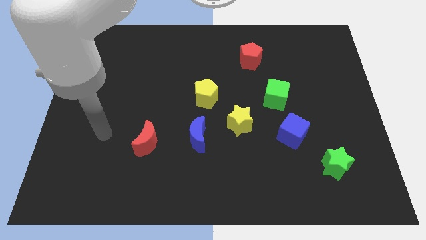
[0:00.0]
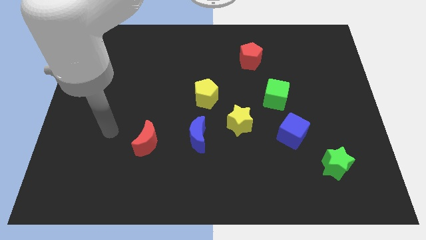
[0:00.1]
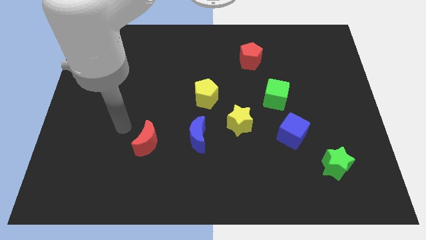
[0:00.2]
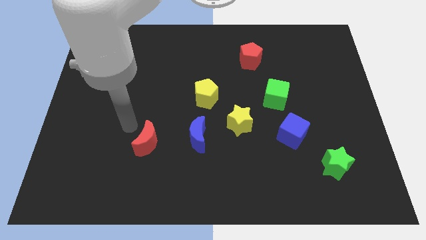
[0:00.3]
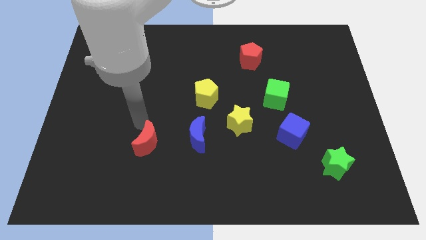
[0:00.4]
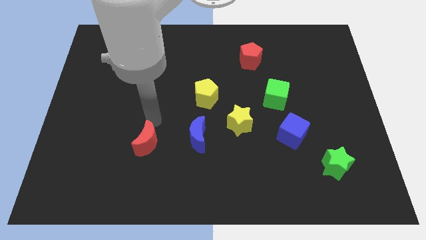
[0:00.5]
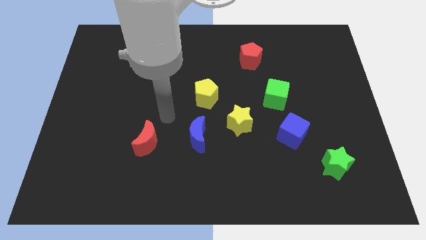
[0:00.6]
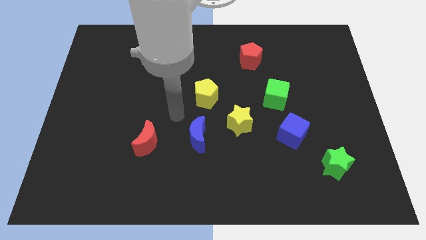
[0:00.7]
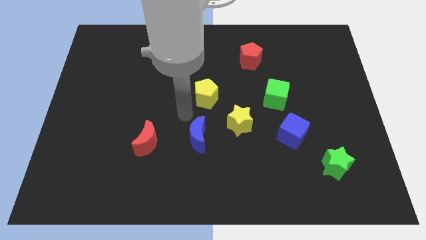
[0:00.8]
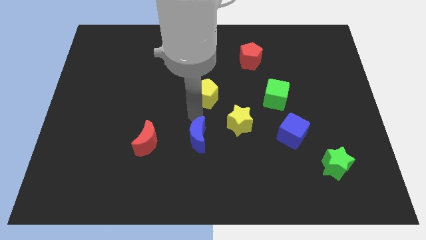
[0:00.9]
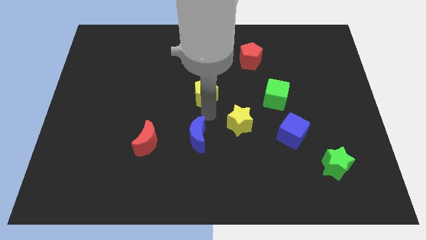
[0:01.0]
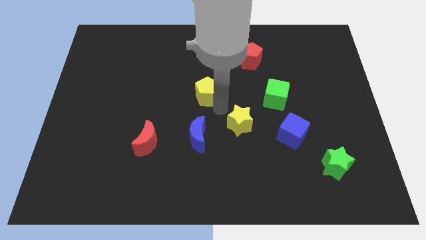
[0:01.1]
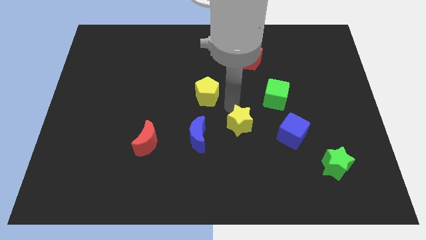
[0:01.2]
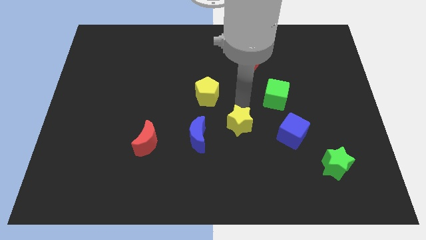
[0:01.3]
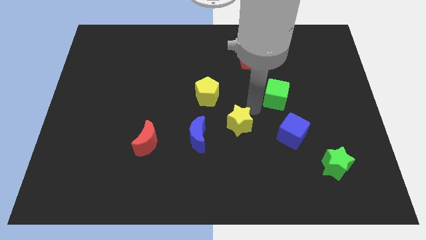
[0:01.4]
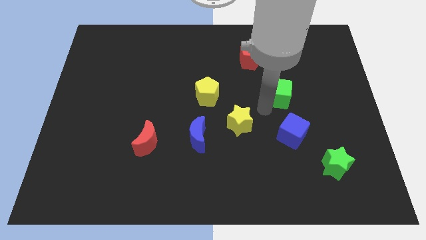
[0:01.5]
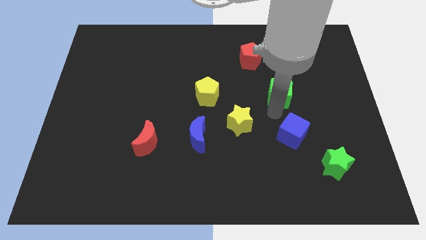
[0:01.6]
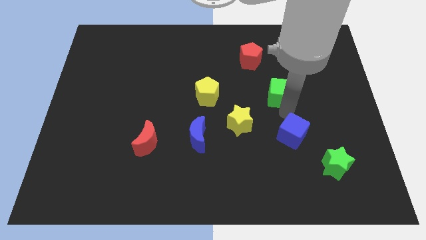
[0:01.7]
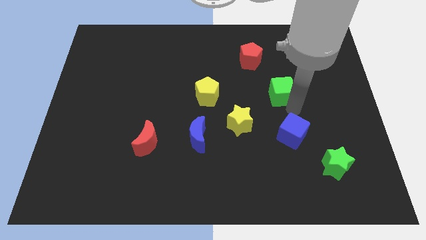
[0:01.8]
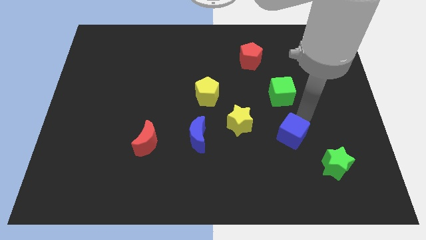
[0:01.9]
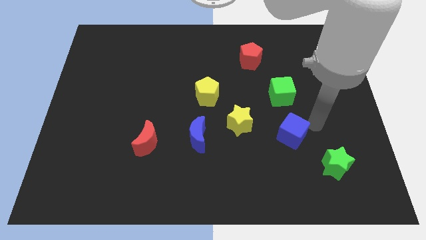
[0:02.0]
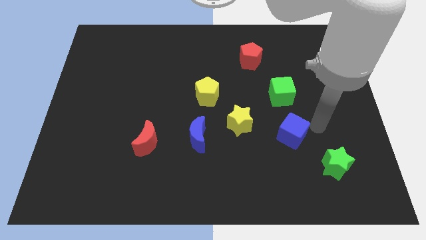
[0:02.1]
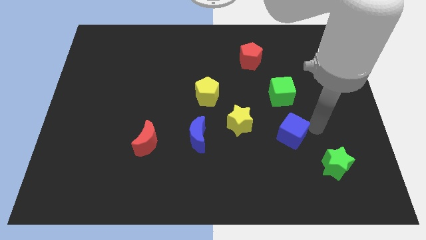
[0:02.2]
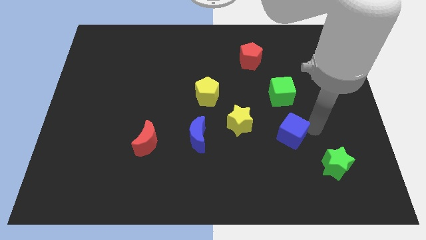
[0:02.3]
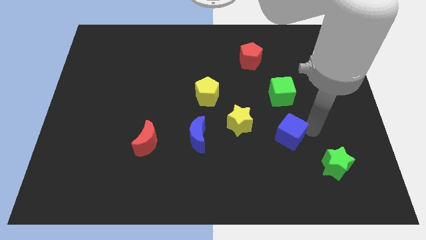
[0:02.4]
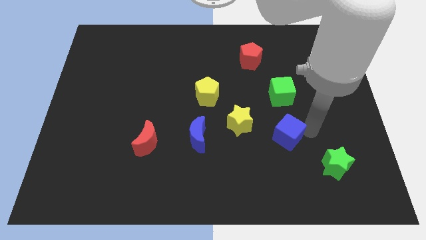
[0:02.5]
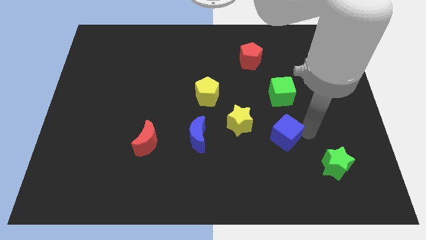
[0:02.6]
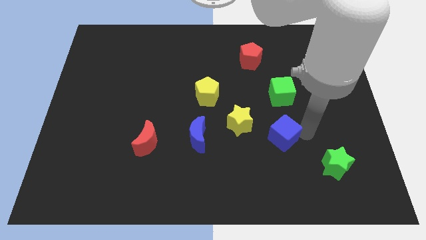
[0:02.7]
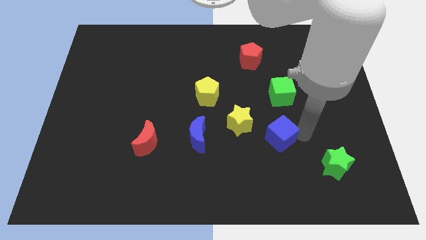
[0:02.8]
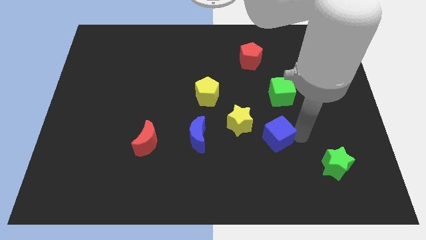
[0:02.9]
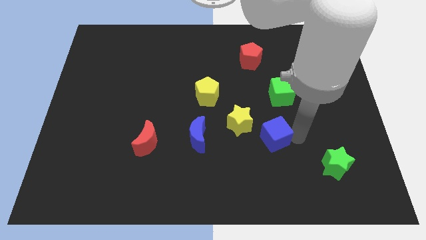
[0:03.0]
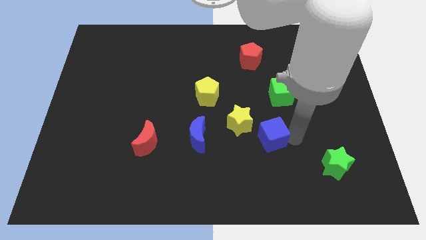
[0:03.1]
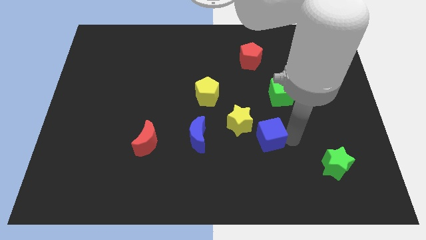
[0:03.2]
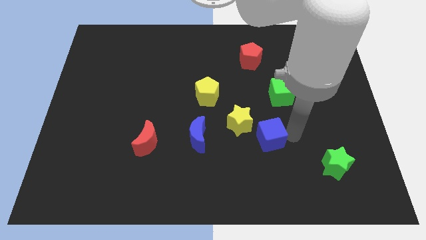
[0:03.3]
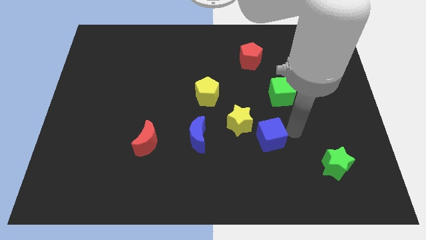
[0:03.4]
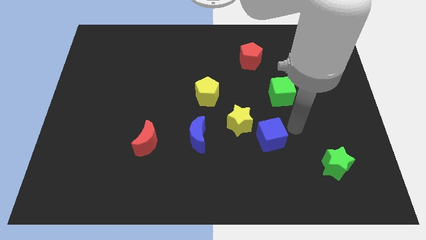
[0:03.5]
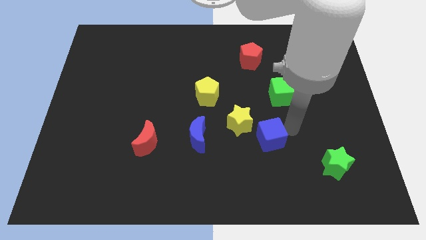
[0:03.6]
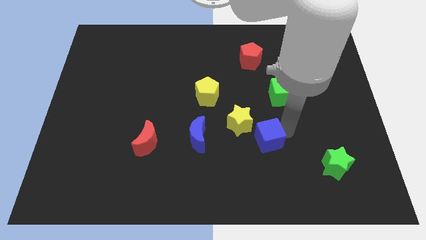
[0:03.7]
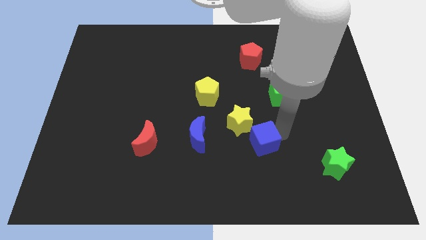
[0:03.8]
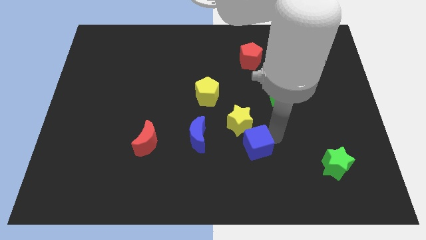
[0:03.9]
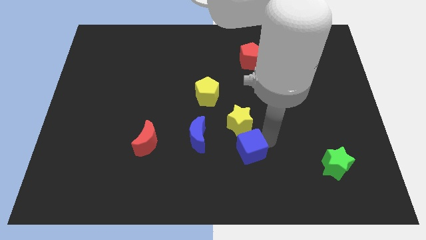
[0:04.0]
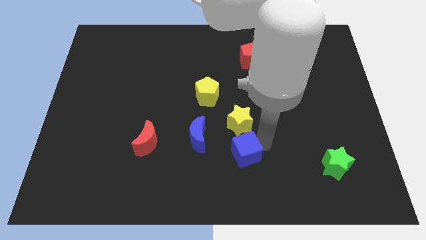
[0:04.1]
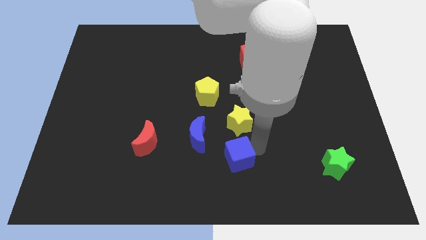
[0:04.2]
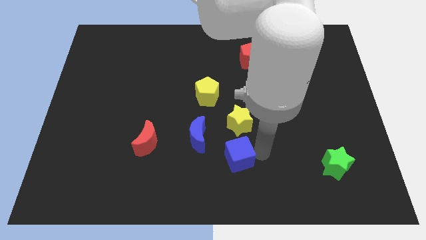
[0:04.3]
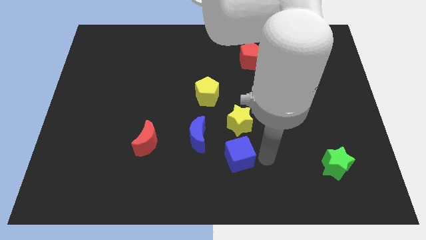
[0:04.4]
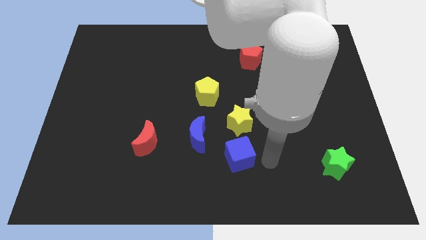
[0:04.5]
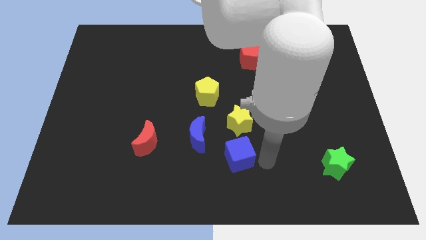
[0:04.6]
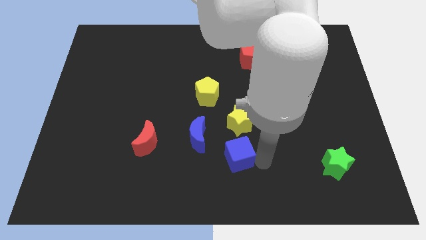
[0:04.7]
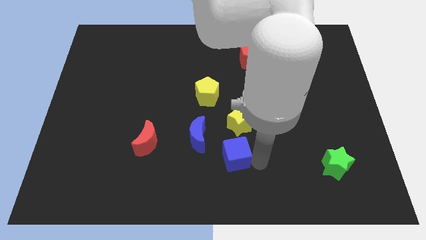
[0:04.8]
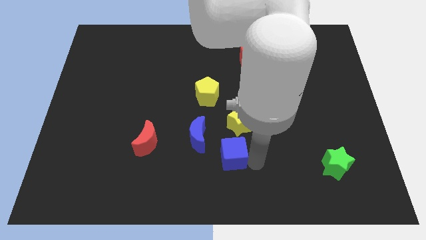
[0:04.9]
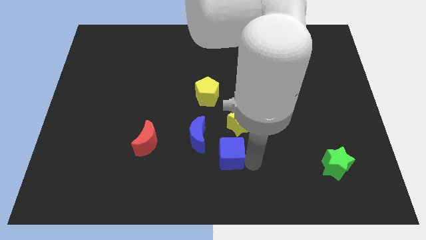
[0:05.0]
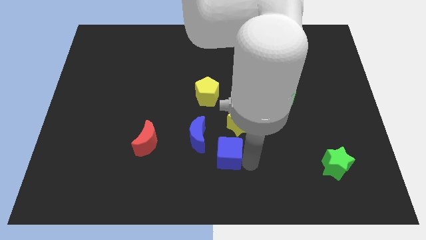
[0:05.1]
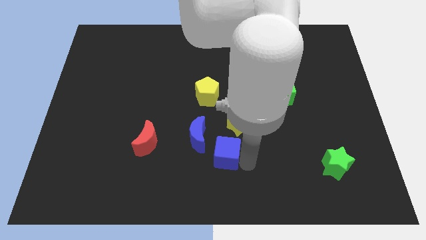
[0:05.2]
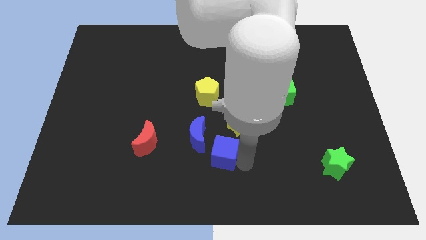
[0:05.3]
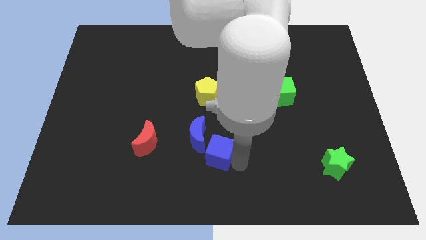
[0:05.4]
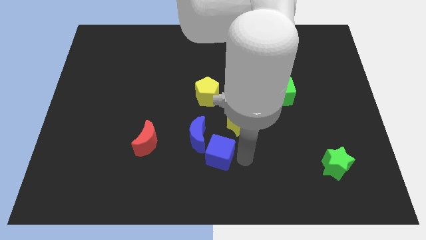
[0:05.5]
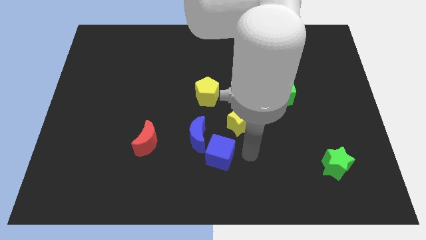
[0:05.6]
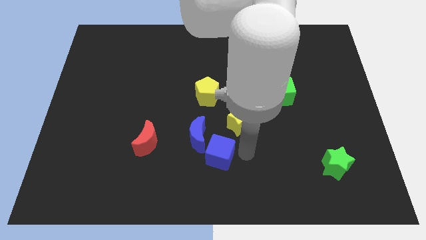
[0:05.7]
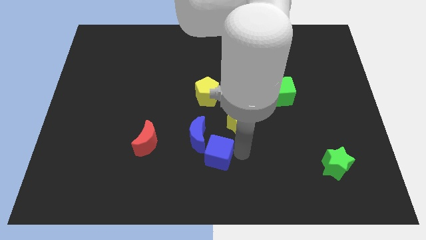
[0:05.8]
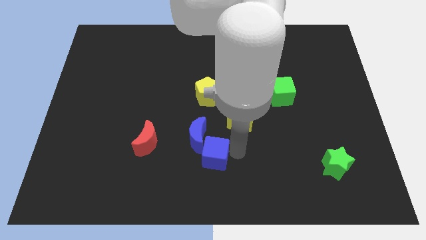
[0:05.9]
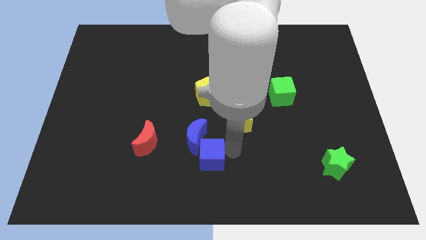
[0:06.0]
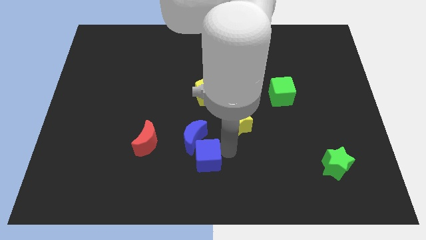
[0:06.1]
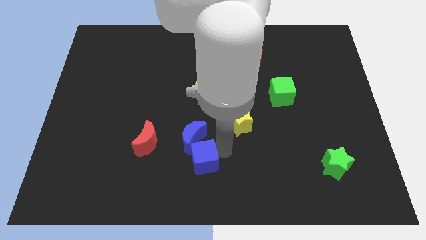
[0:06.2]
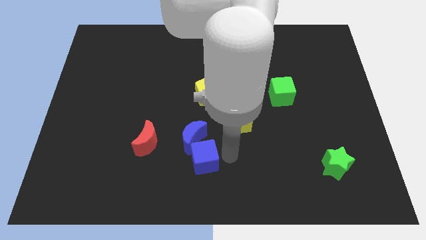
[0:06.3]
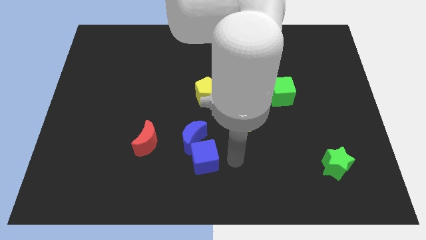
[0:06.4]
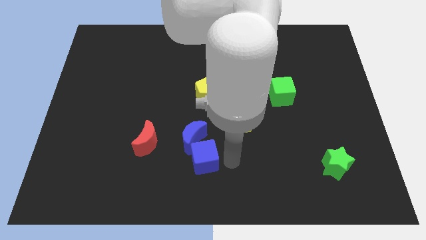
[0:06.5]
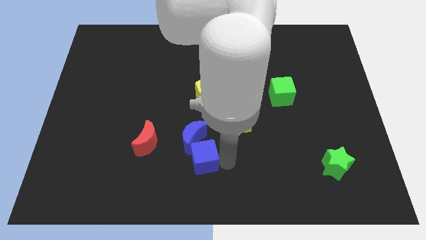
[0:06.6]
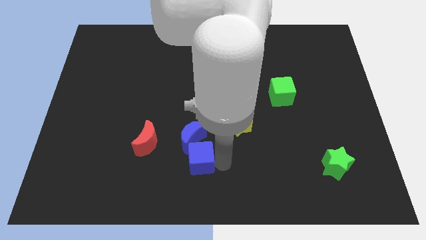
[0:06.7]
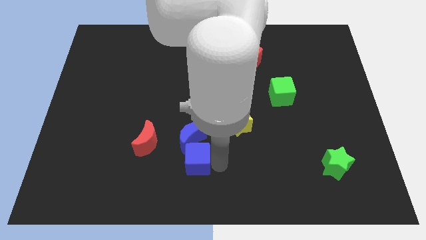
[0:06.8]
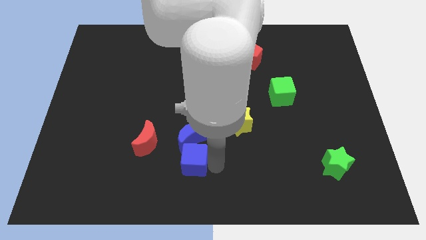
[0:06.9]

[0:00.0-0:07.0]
push the blue cube diagonally down and to the left of the blue moon

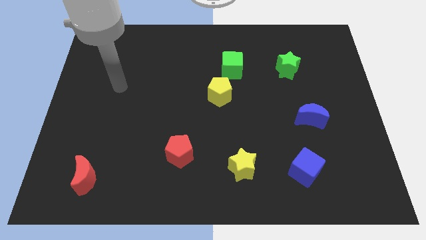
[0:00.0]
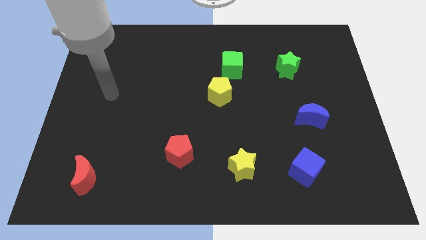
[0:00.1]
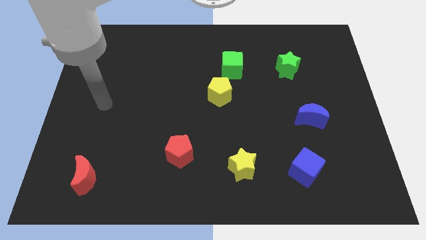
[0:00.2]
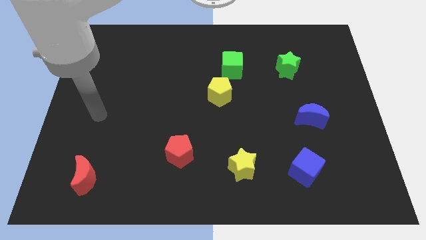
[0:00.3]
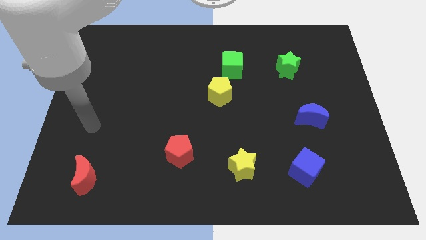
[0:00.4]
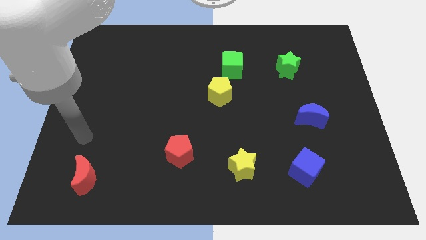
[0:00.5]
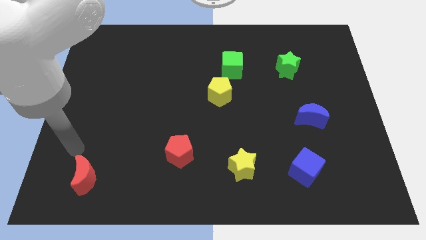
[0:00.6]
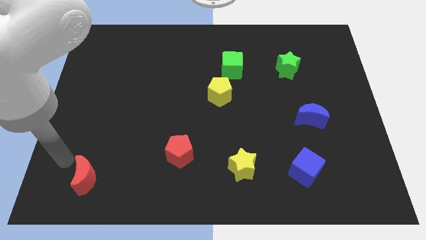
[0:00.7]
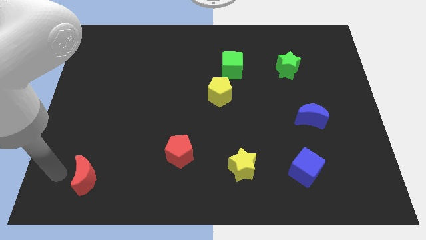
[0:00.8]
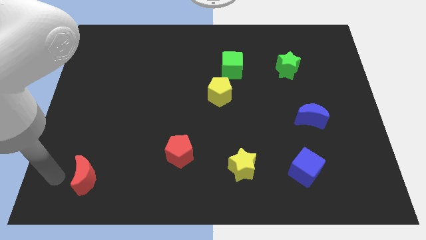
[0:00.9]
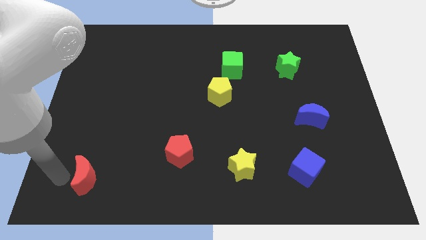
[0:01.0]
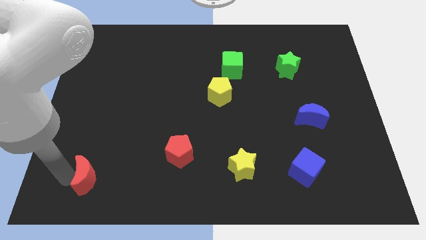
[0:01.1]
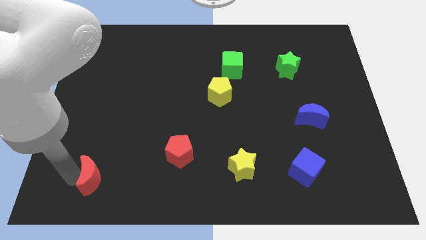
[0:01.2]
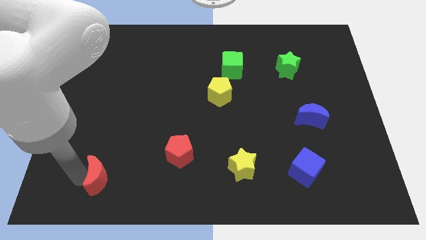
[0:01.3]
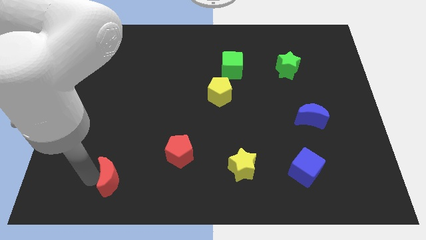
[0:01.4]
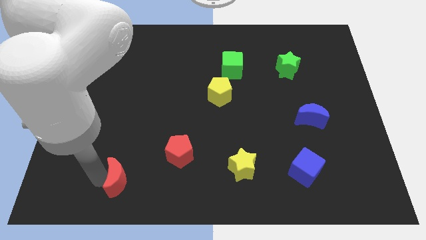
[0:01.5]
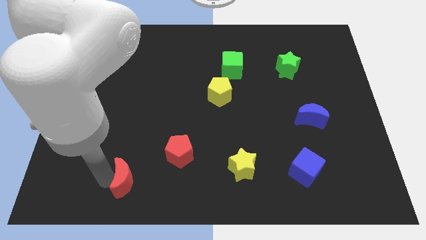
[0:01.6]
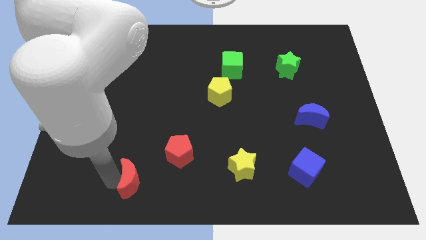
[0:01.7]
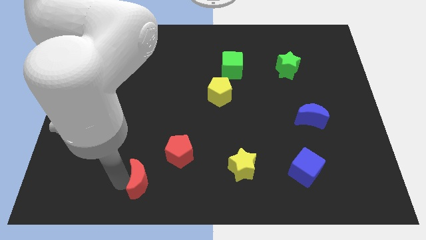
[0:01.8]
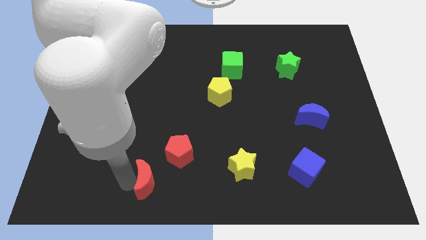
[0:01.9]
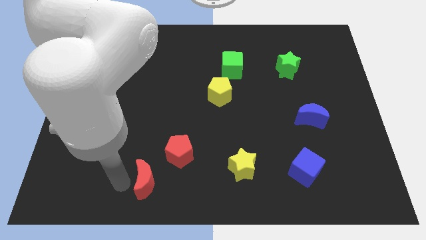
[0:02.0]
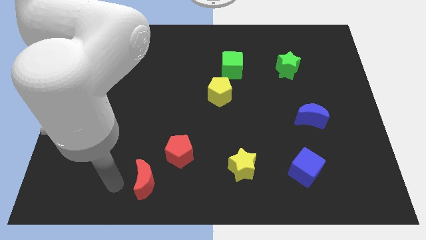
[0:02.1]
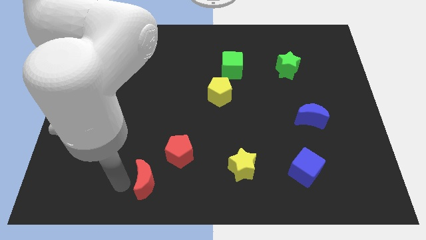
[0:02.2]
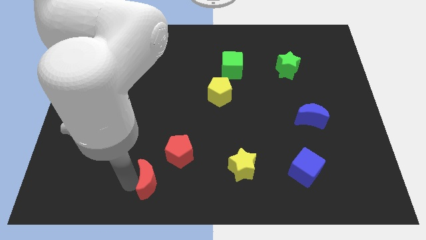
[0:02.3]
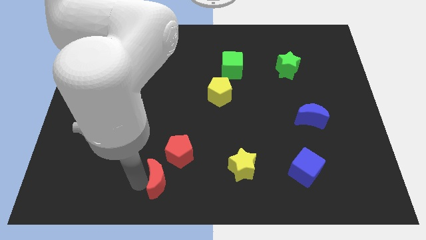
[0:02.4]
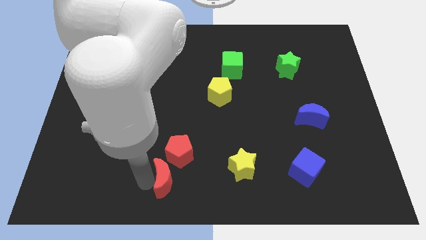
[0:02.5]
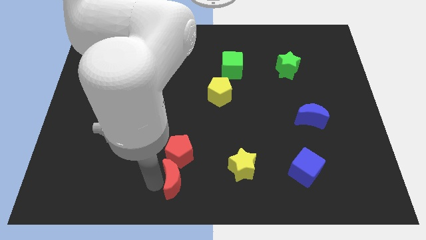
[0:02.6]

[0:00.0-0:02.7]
put the red moon to the left side of the yellow star
